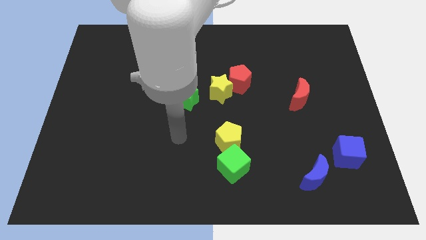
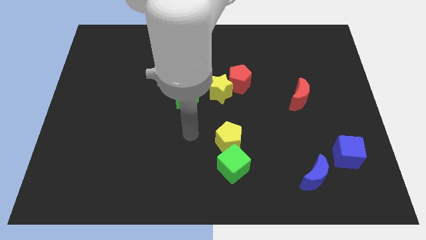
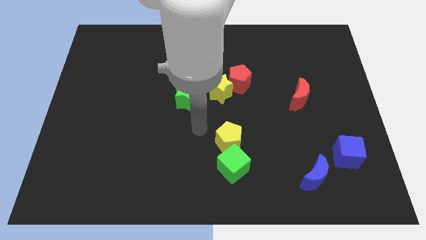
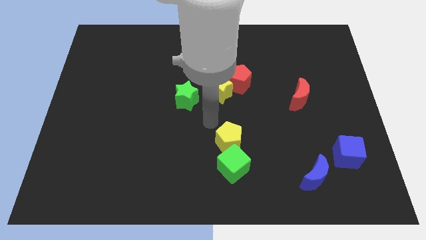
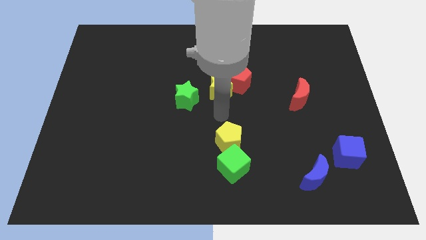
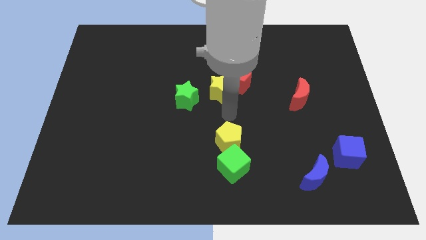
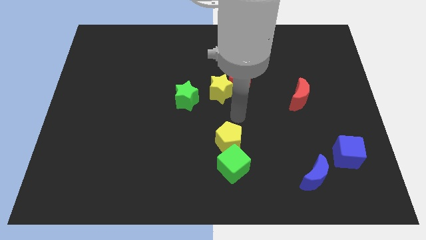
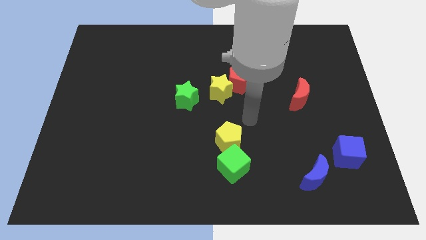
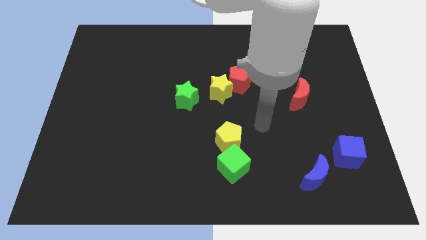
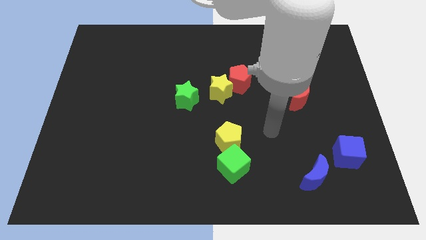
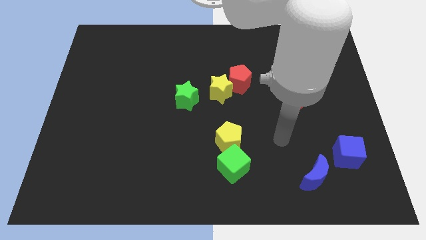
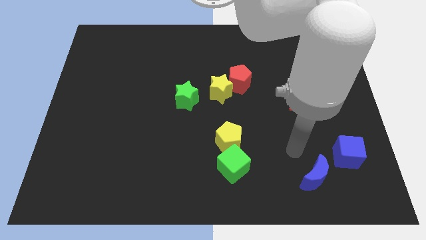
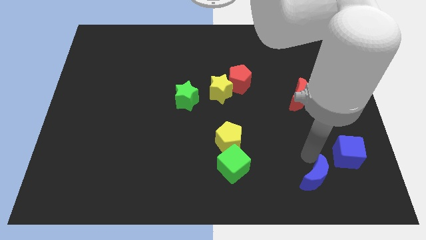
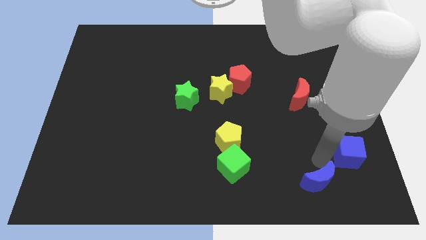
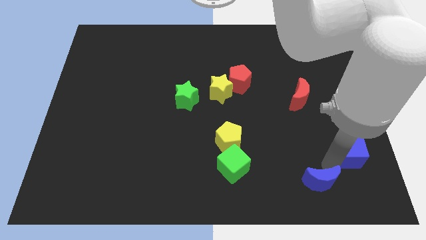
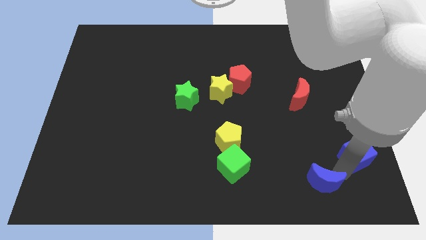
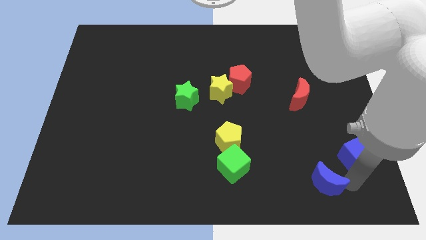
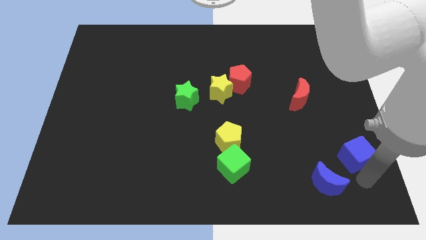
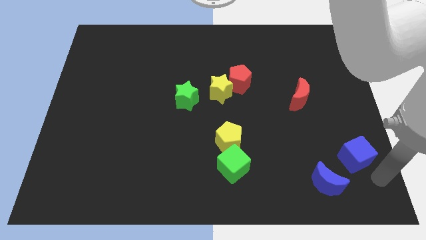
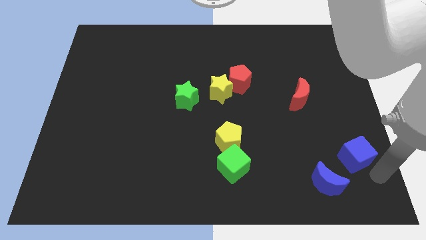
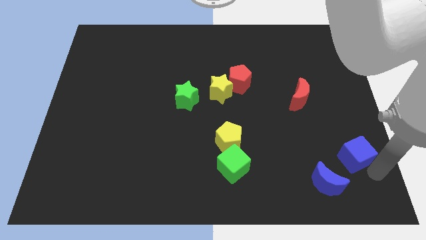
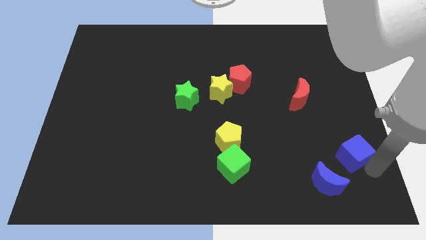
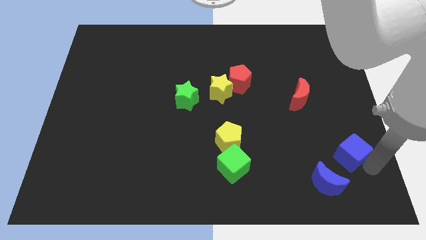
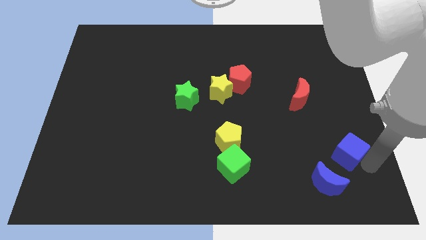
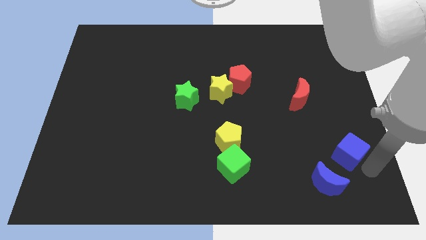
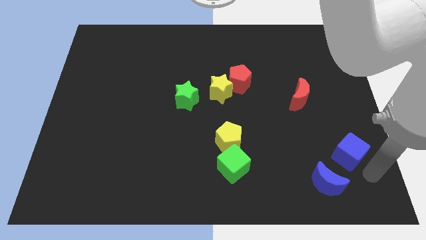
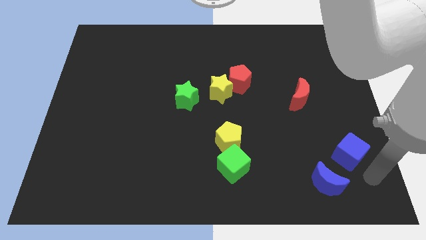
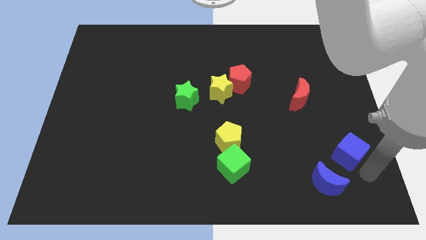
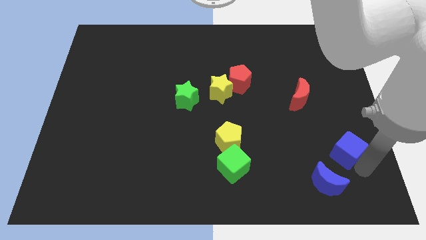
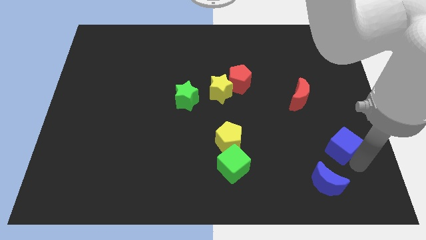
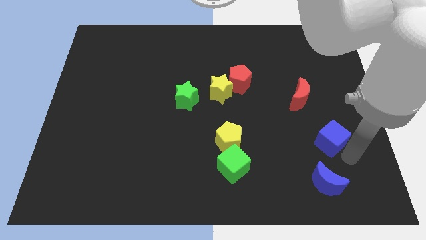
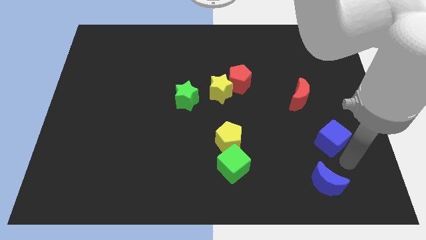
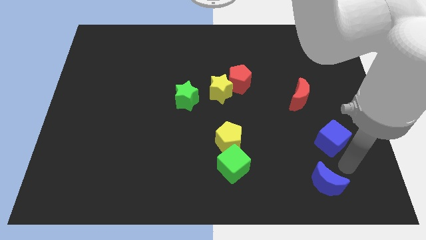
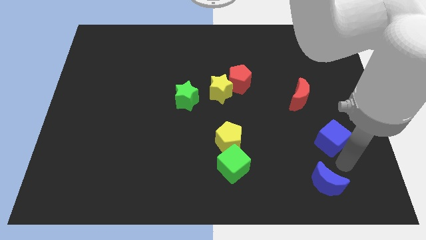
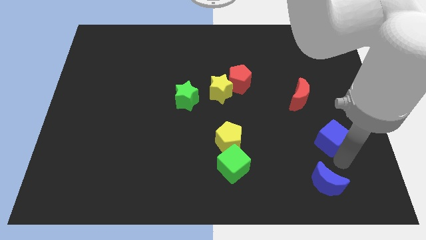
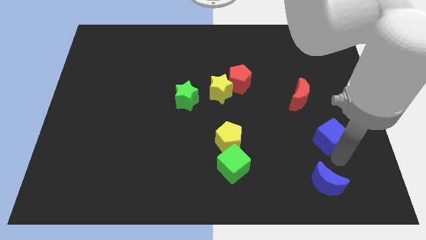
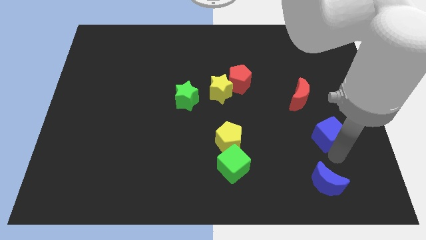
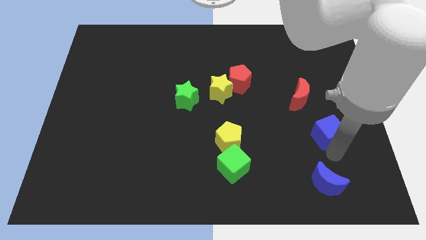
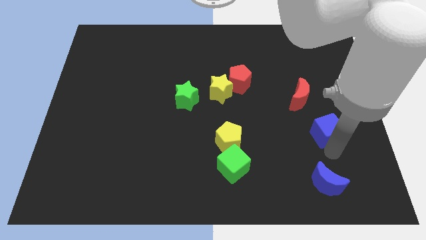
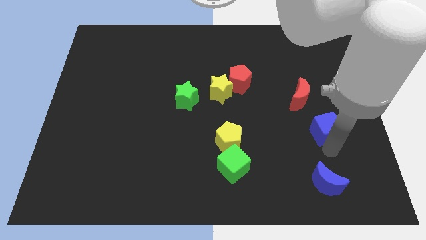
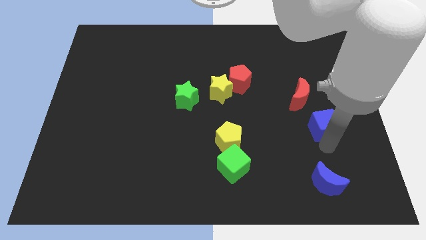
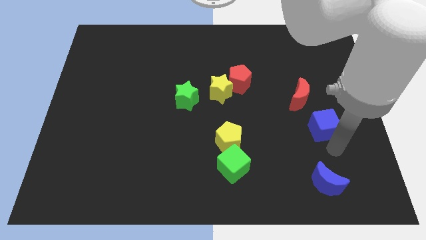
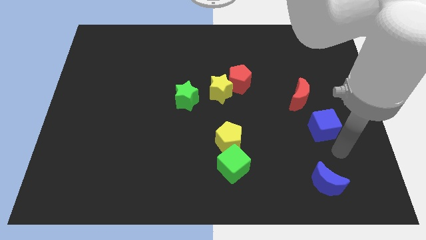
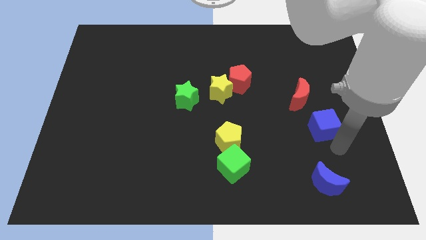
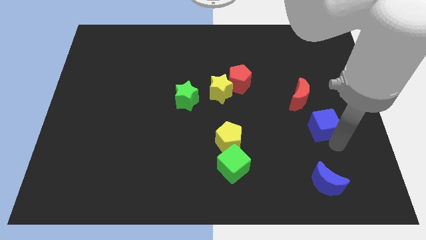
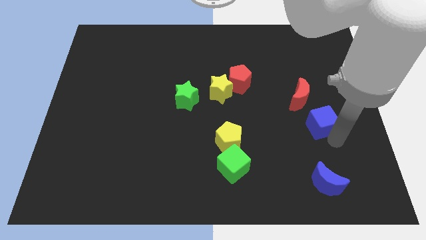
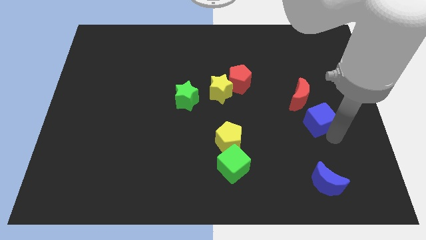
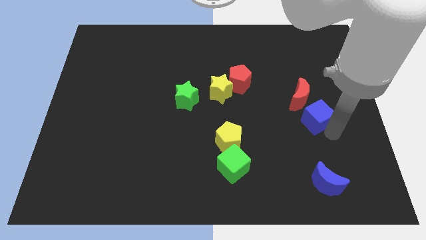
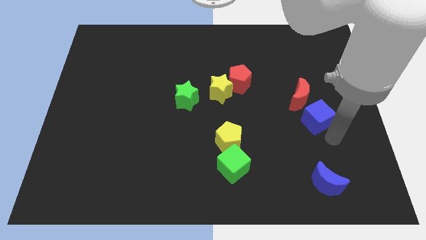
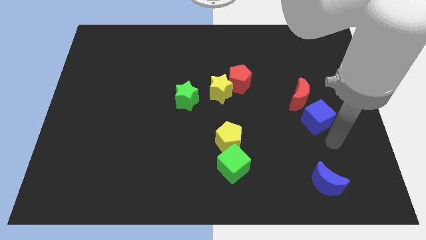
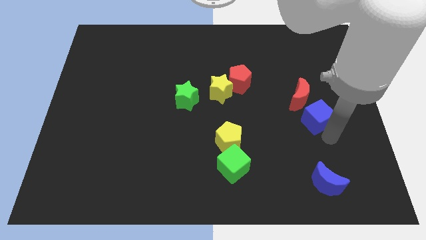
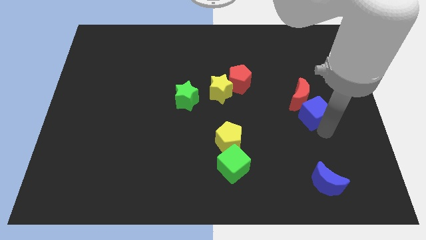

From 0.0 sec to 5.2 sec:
move the blue cube next to the red moon

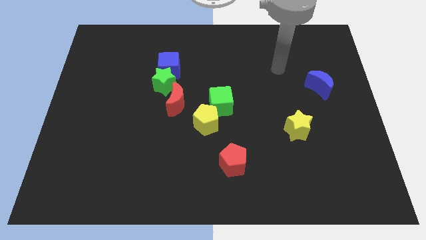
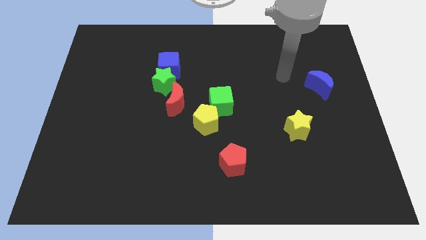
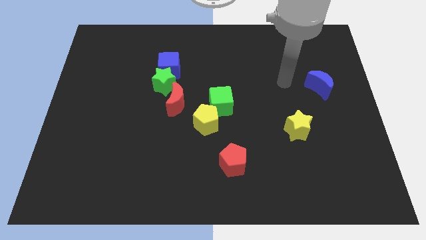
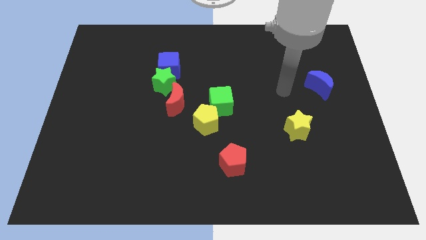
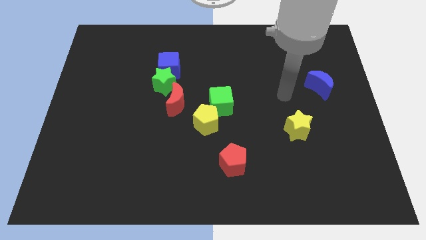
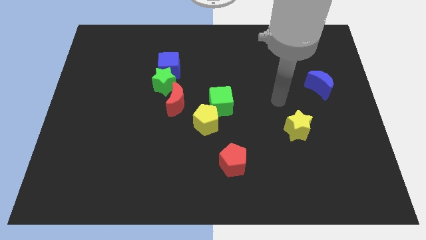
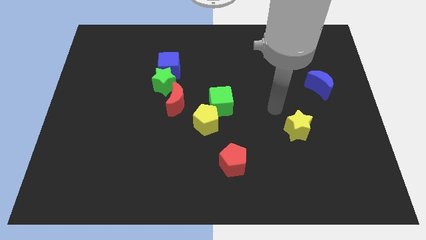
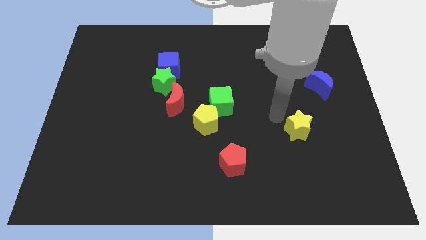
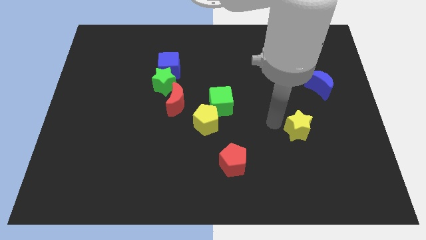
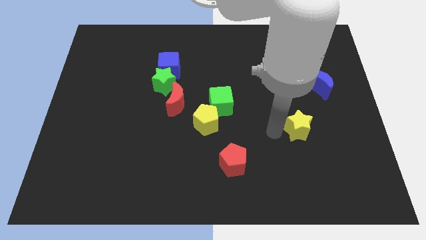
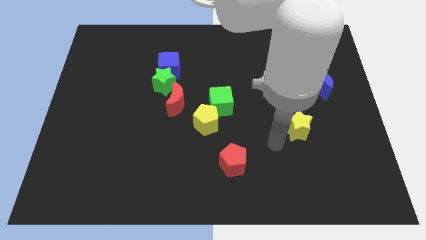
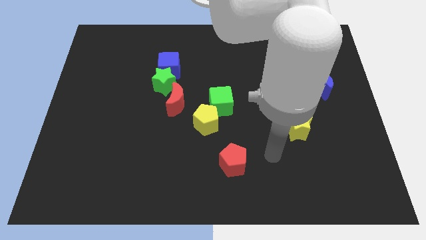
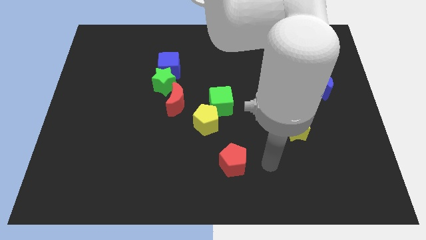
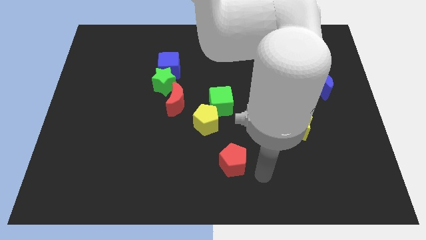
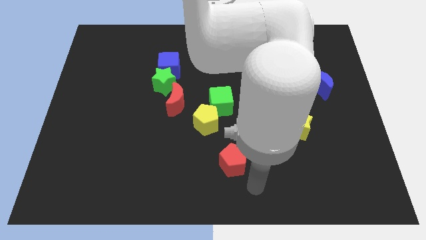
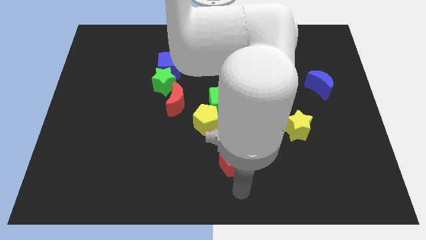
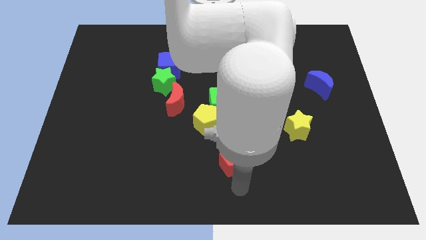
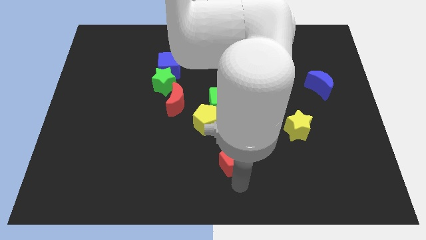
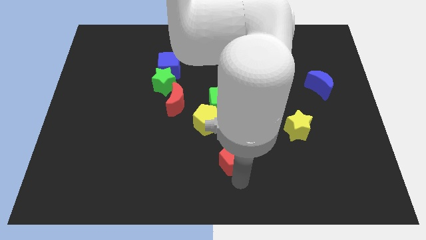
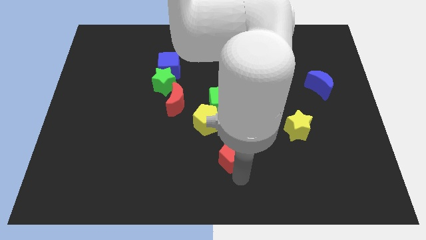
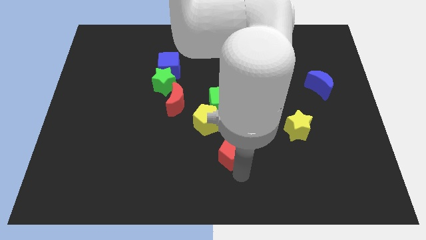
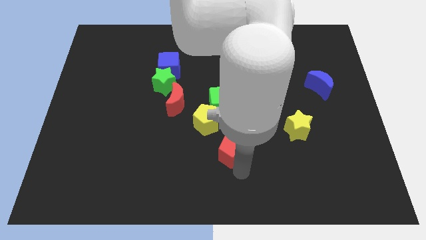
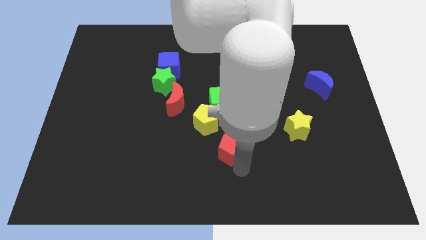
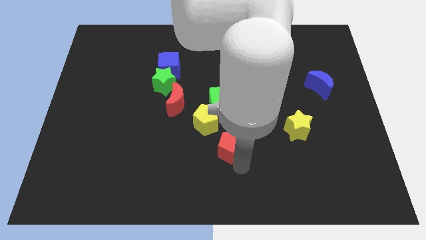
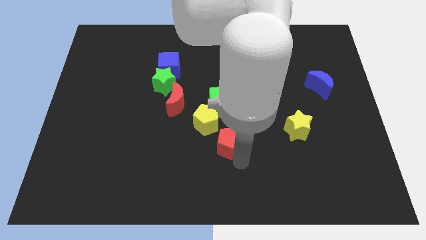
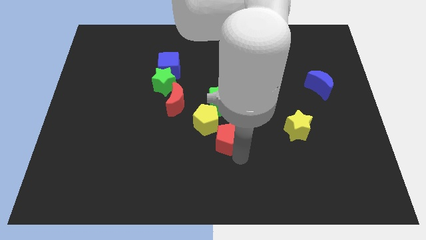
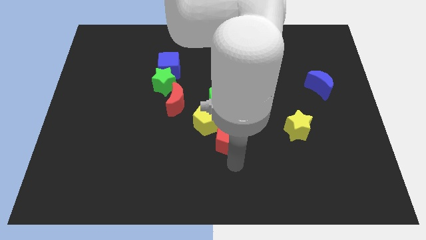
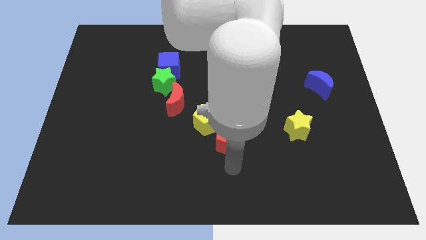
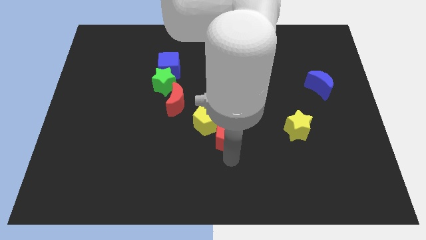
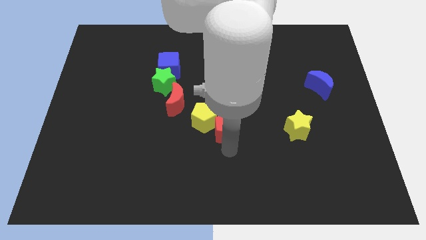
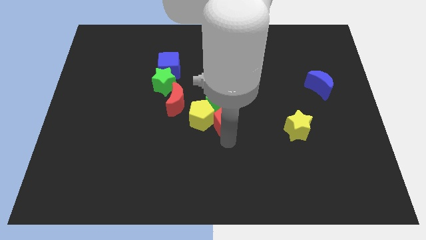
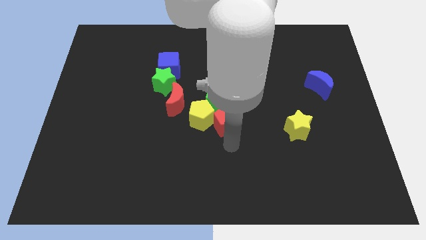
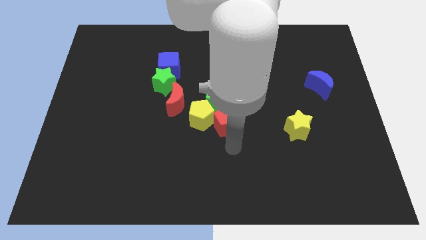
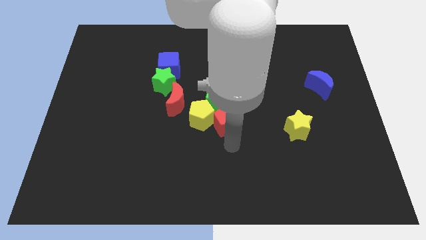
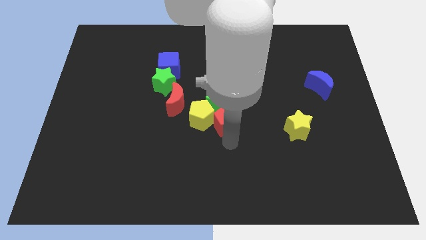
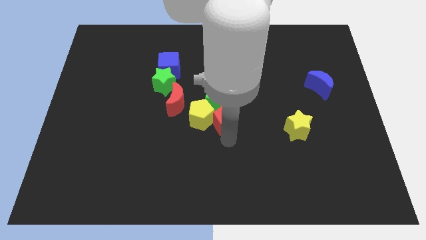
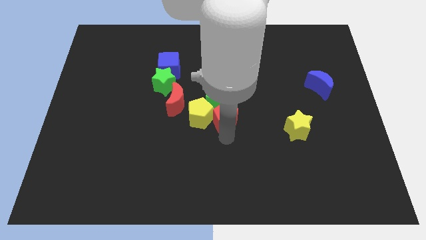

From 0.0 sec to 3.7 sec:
push the red pentagon next to the green cube
